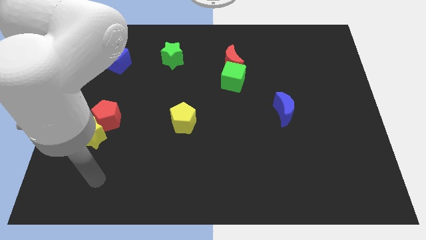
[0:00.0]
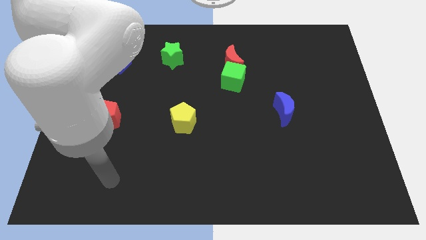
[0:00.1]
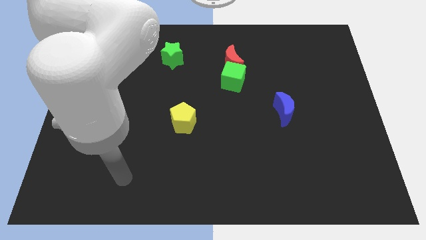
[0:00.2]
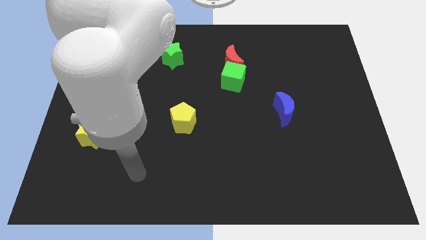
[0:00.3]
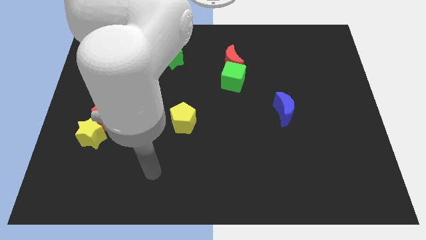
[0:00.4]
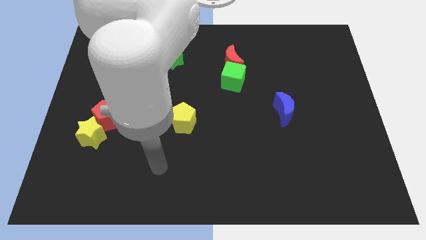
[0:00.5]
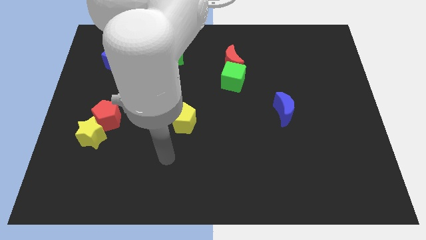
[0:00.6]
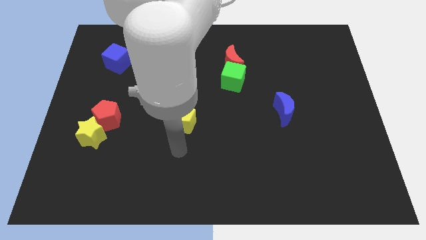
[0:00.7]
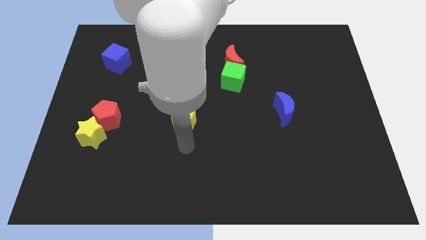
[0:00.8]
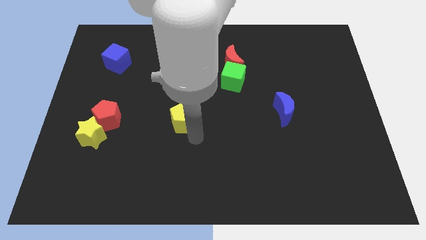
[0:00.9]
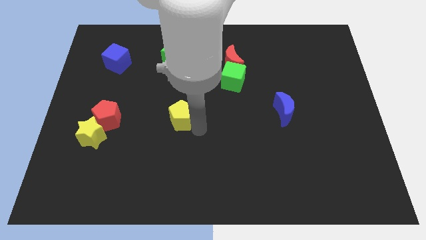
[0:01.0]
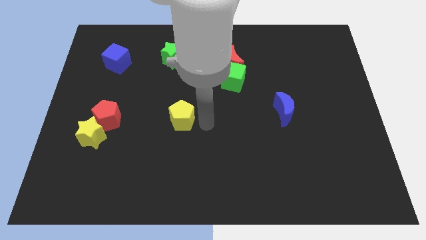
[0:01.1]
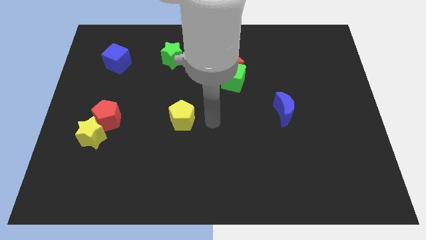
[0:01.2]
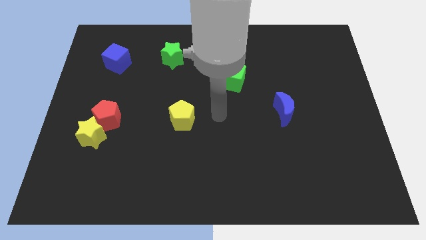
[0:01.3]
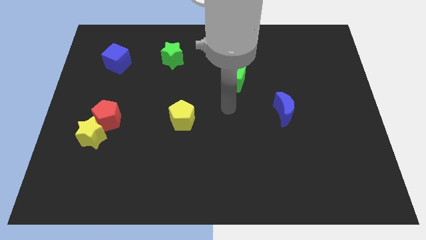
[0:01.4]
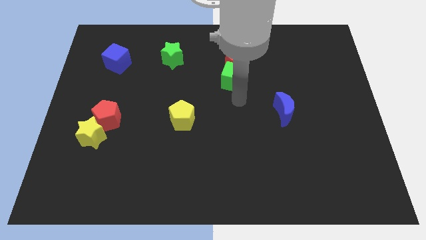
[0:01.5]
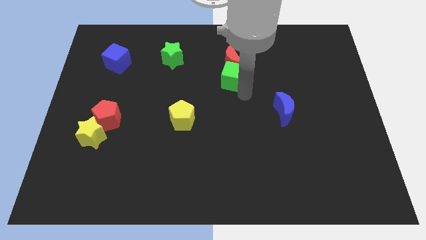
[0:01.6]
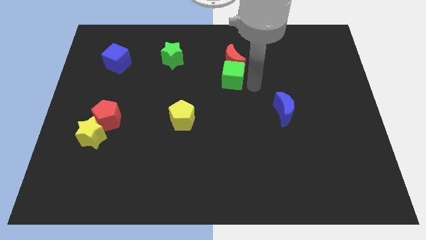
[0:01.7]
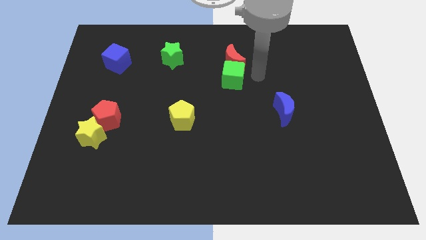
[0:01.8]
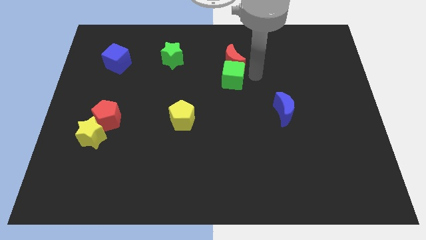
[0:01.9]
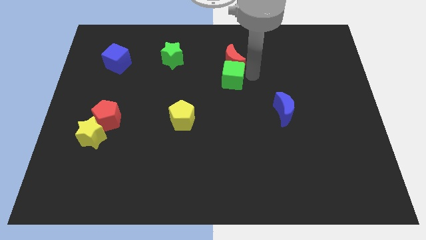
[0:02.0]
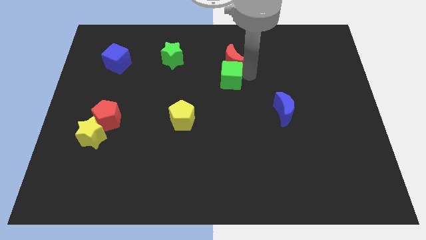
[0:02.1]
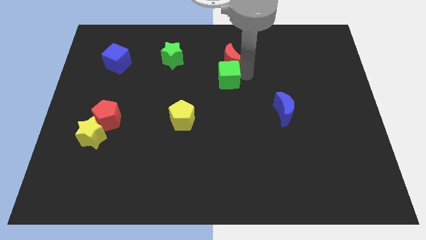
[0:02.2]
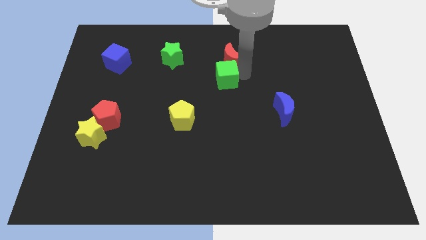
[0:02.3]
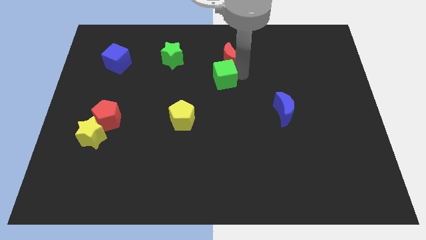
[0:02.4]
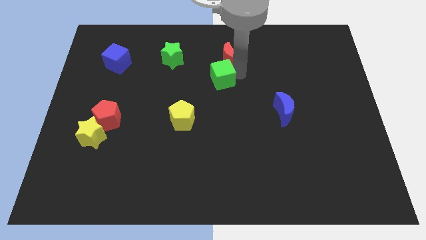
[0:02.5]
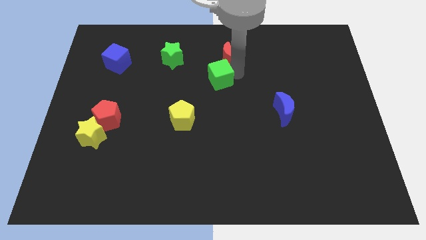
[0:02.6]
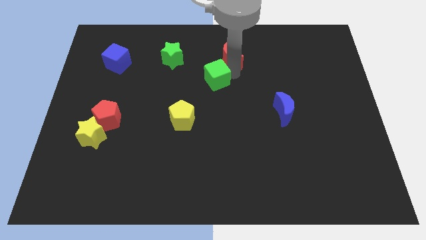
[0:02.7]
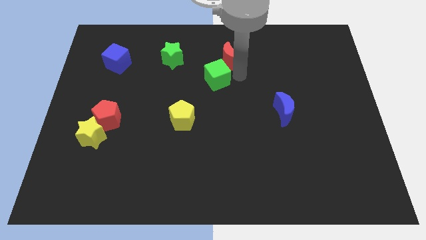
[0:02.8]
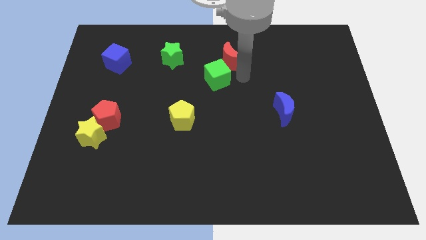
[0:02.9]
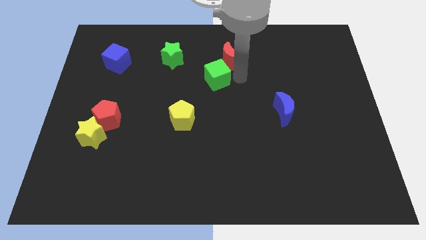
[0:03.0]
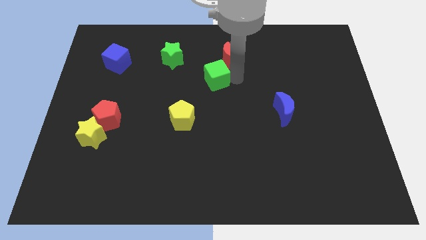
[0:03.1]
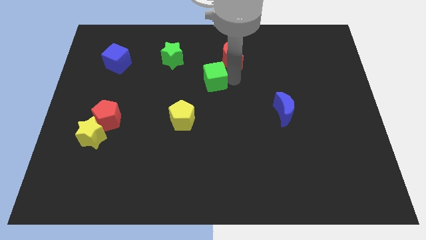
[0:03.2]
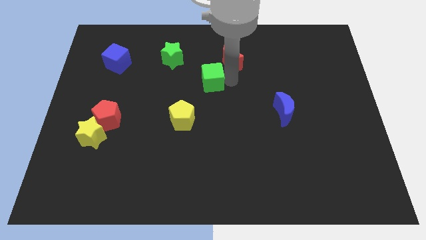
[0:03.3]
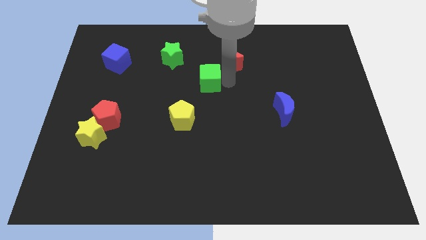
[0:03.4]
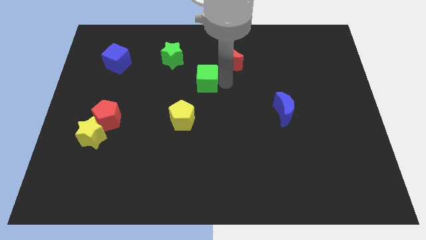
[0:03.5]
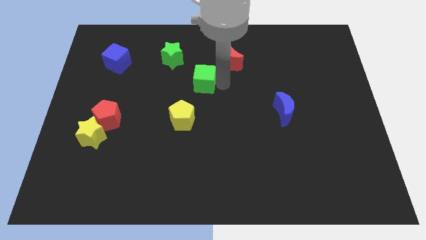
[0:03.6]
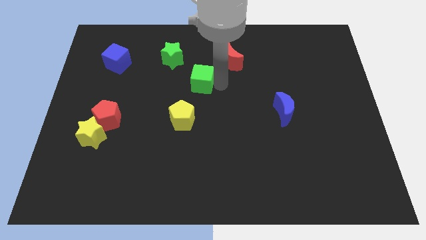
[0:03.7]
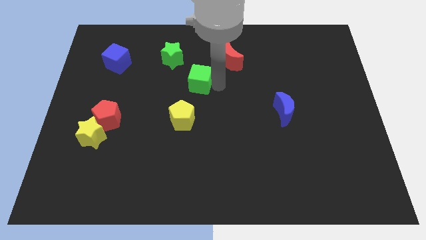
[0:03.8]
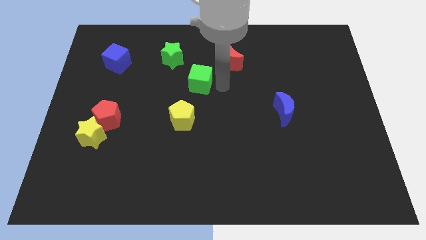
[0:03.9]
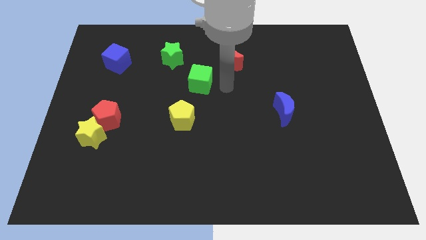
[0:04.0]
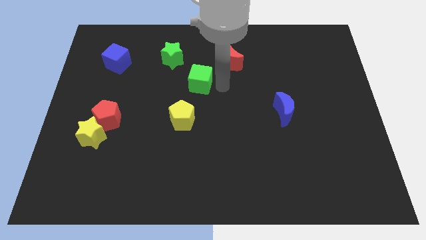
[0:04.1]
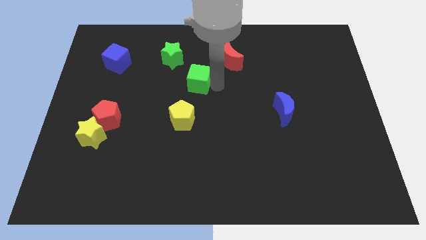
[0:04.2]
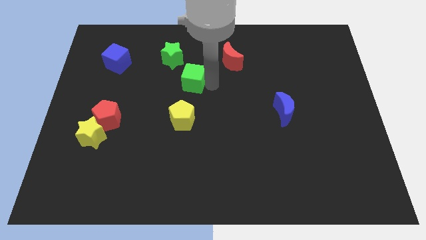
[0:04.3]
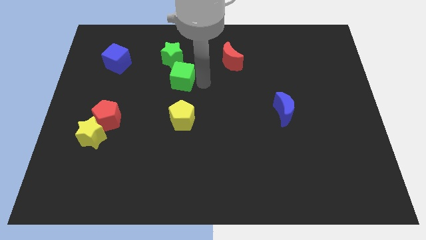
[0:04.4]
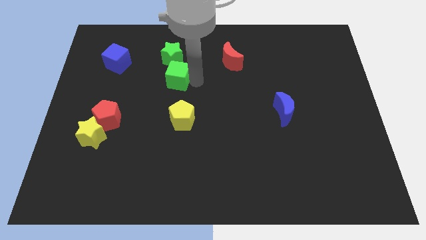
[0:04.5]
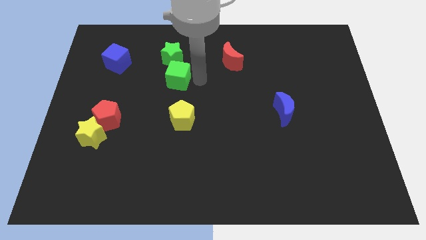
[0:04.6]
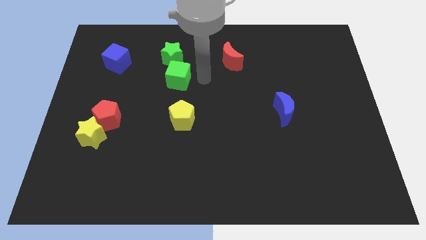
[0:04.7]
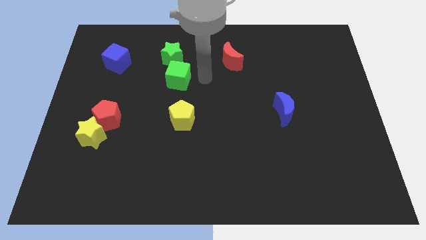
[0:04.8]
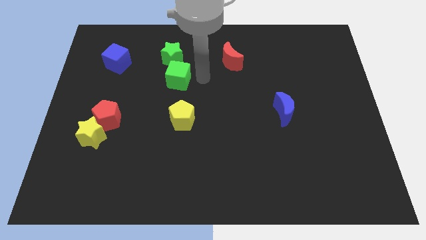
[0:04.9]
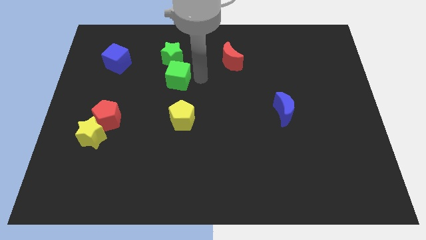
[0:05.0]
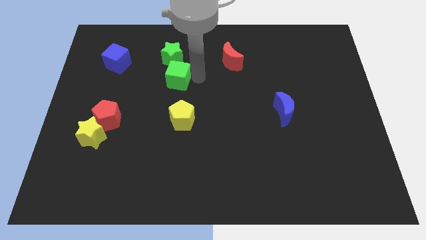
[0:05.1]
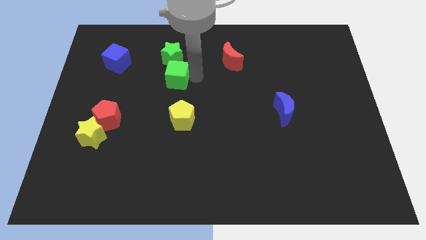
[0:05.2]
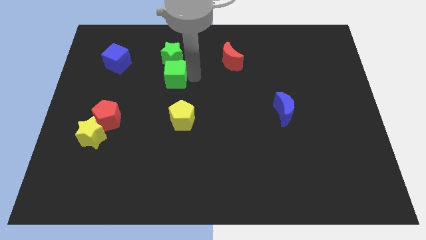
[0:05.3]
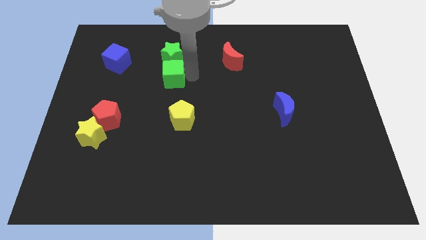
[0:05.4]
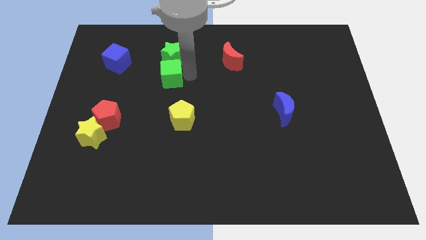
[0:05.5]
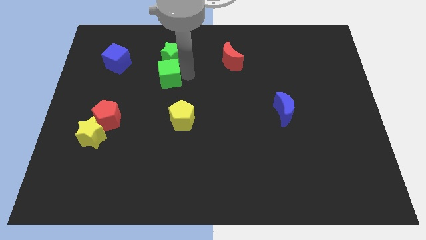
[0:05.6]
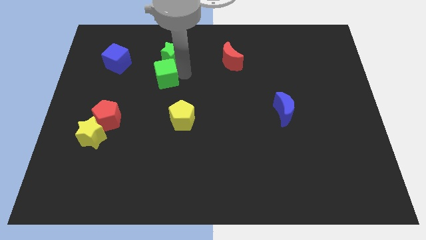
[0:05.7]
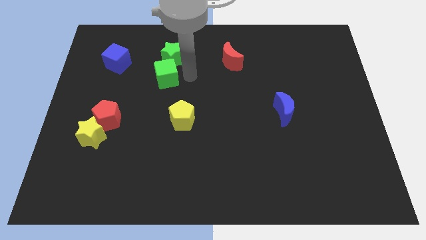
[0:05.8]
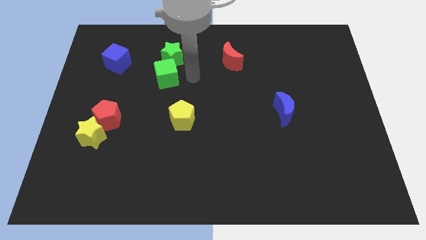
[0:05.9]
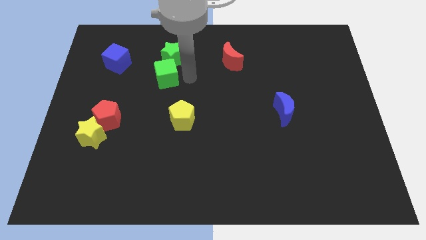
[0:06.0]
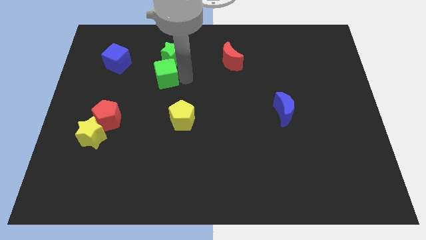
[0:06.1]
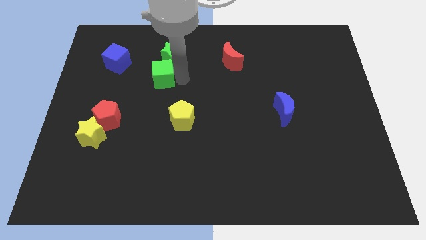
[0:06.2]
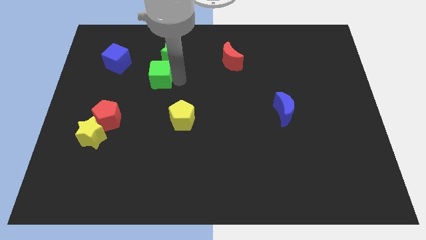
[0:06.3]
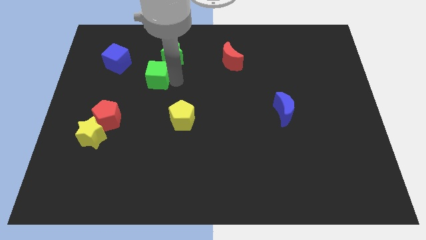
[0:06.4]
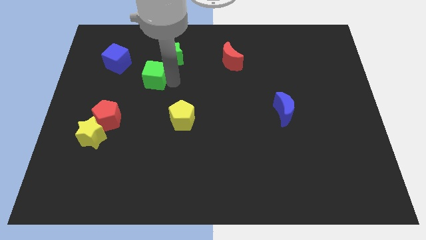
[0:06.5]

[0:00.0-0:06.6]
slide the green cube diagonally down and to the right of the blue cube
